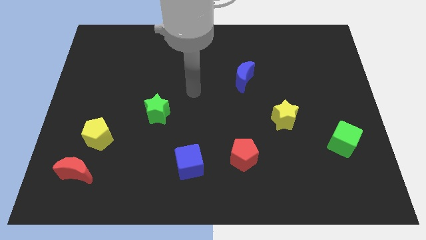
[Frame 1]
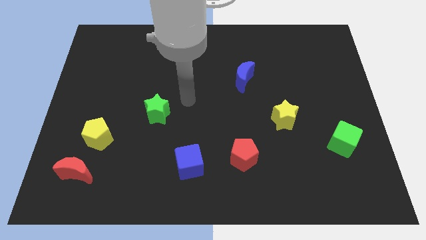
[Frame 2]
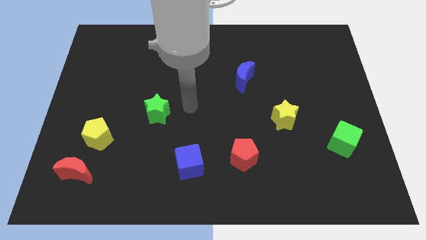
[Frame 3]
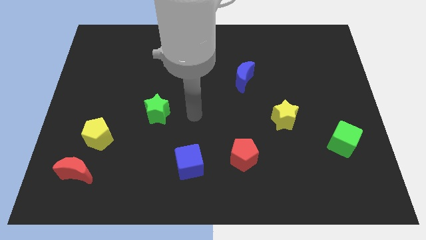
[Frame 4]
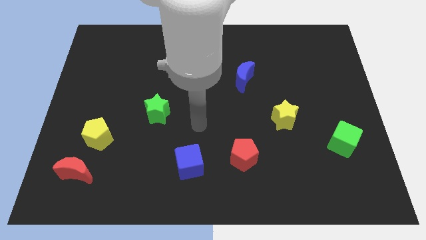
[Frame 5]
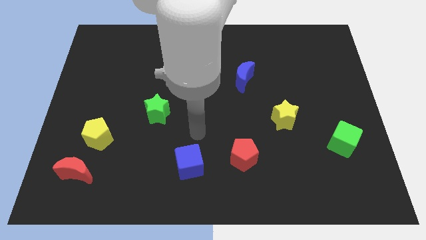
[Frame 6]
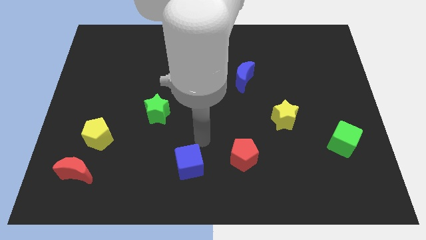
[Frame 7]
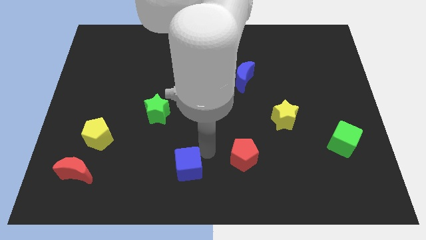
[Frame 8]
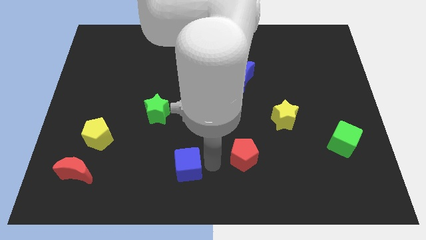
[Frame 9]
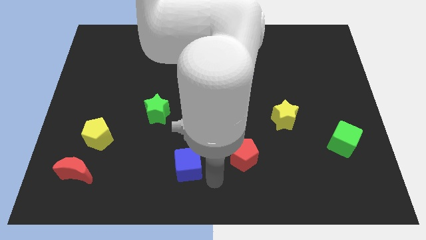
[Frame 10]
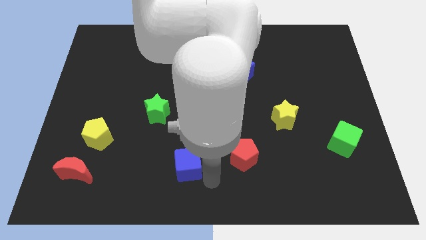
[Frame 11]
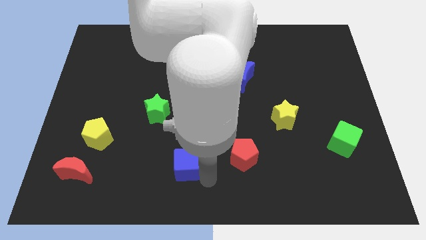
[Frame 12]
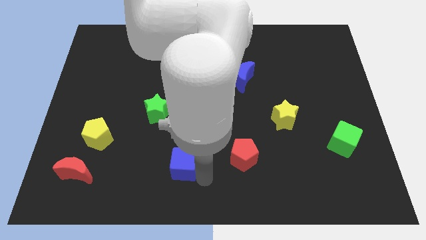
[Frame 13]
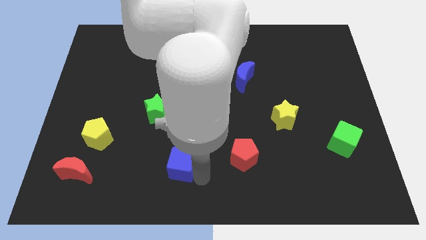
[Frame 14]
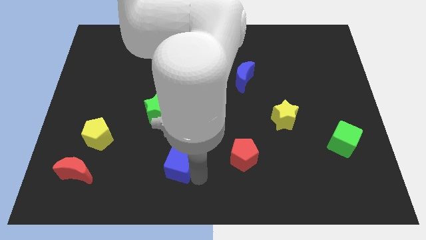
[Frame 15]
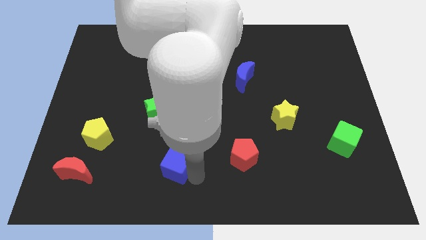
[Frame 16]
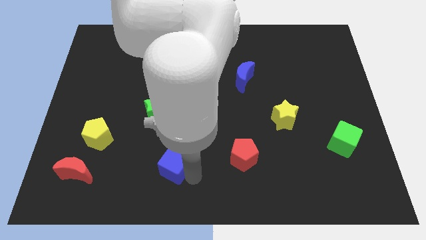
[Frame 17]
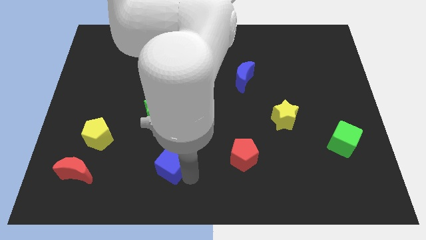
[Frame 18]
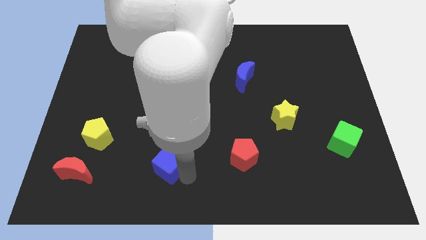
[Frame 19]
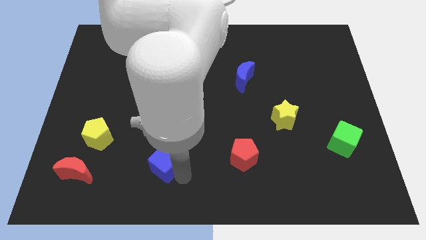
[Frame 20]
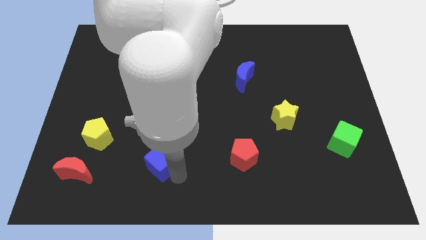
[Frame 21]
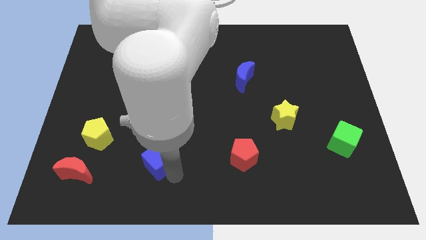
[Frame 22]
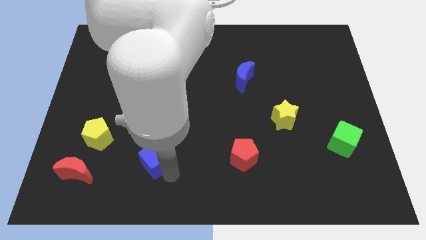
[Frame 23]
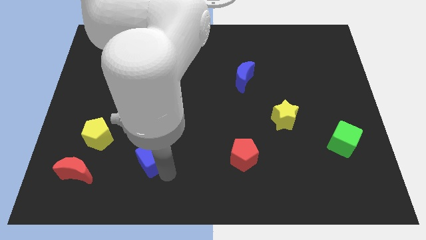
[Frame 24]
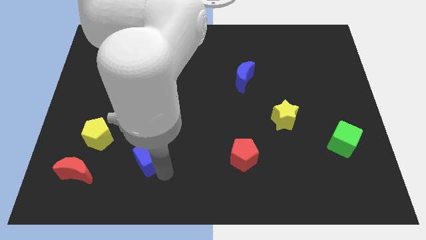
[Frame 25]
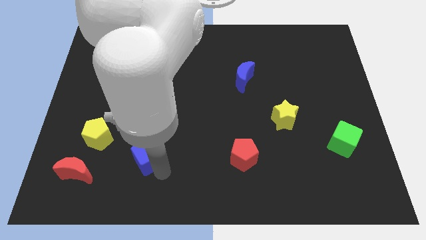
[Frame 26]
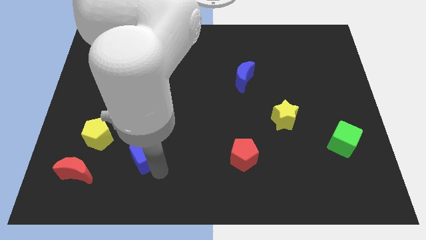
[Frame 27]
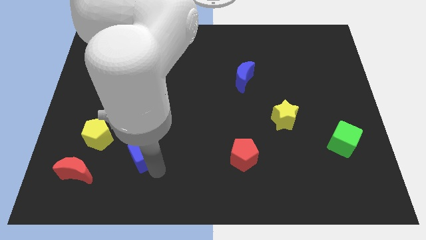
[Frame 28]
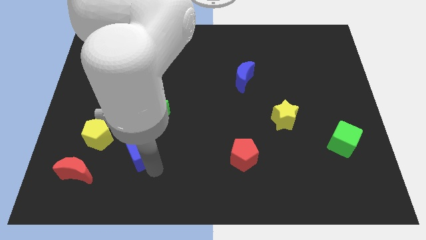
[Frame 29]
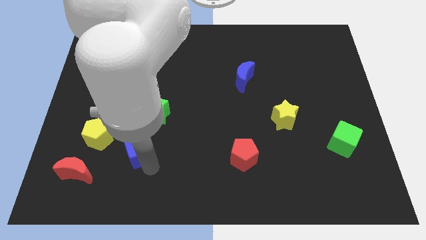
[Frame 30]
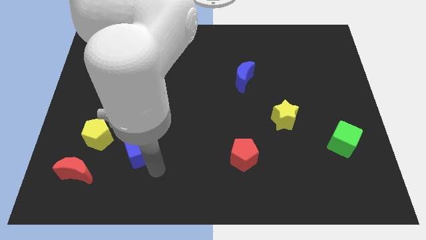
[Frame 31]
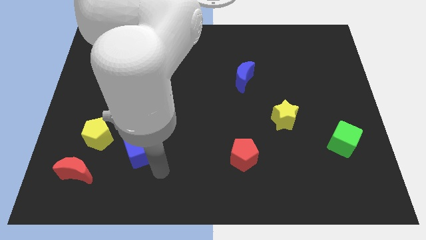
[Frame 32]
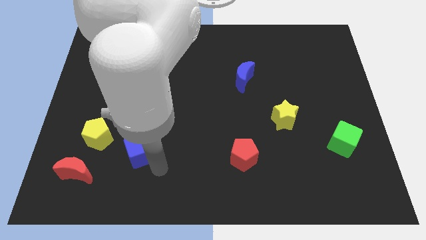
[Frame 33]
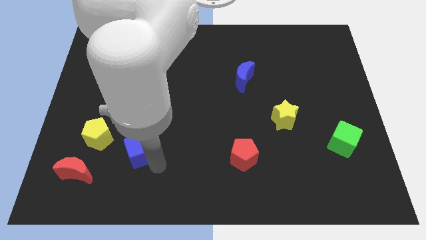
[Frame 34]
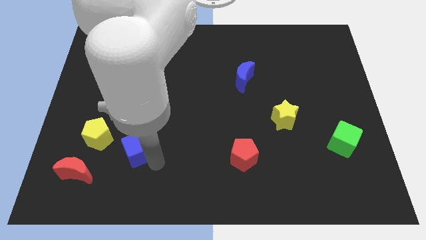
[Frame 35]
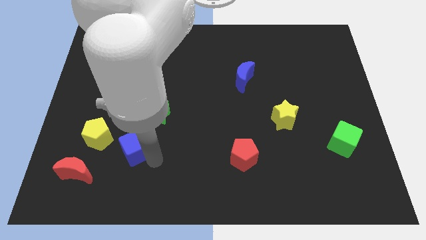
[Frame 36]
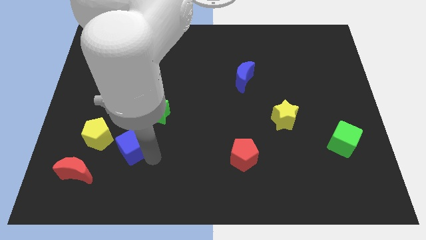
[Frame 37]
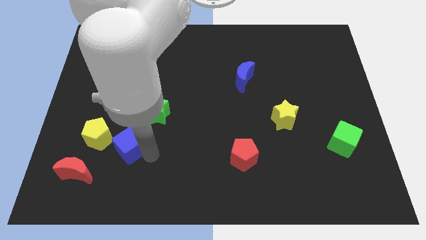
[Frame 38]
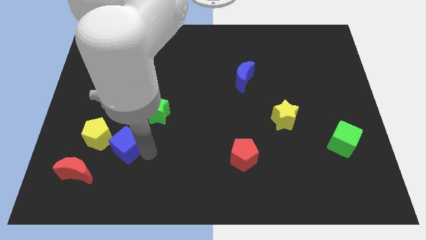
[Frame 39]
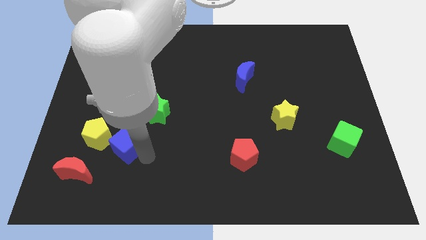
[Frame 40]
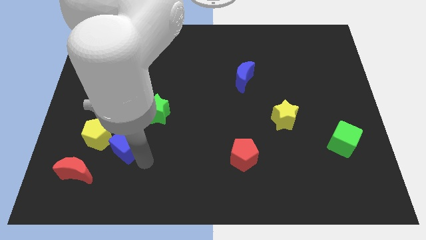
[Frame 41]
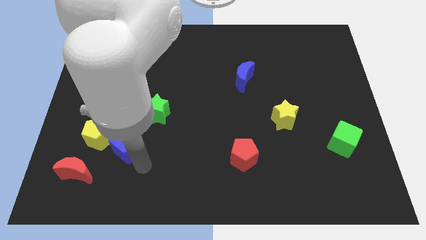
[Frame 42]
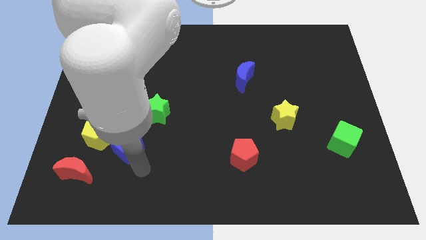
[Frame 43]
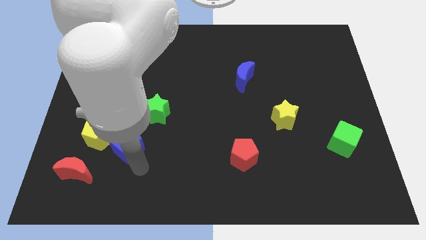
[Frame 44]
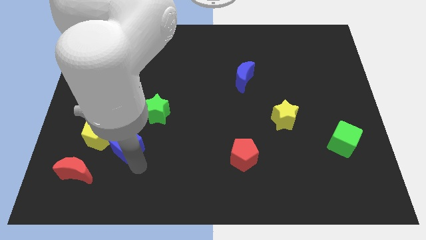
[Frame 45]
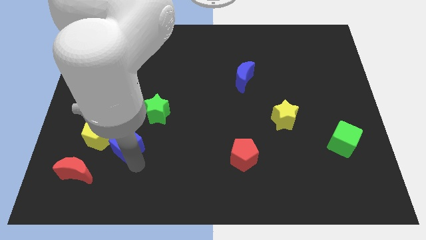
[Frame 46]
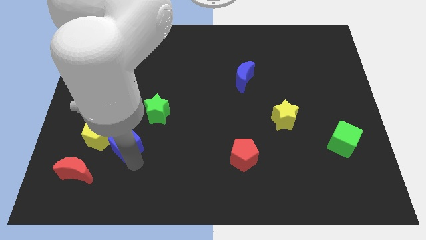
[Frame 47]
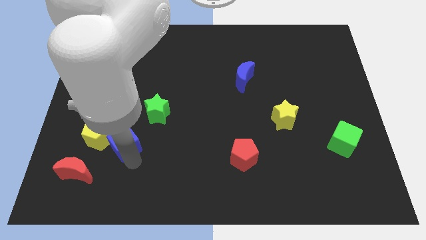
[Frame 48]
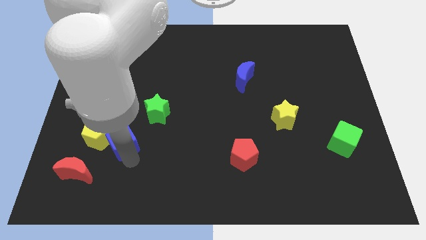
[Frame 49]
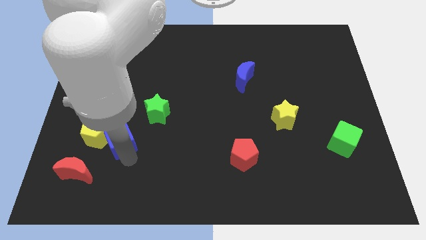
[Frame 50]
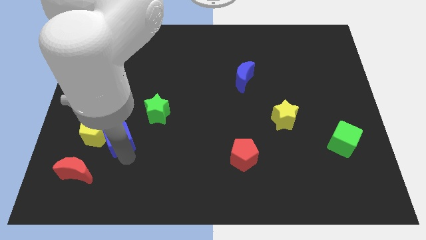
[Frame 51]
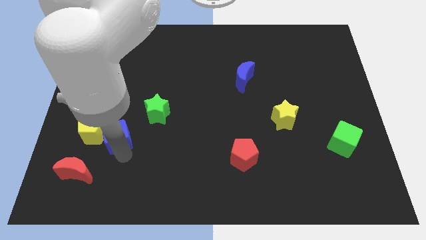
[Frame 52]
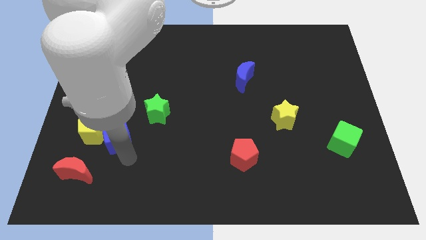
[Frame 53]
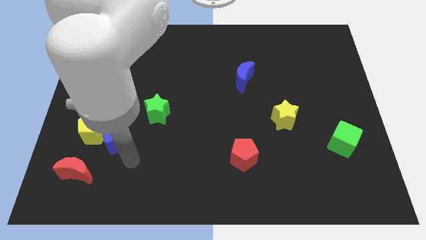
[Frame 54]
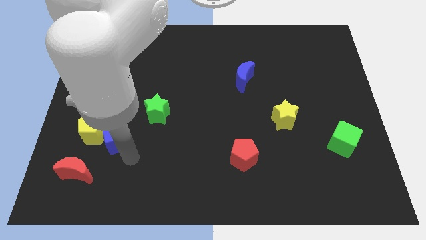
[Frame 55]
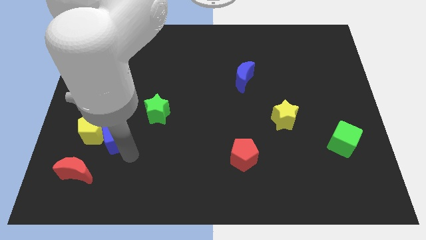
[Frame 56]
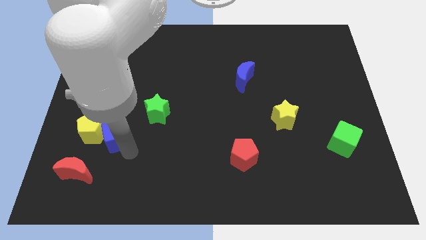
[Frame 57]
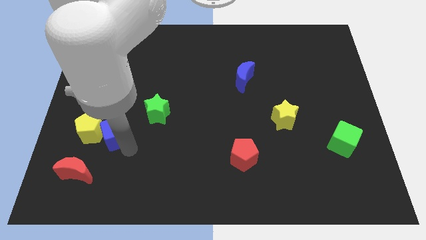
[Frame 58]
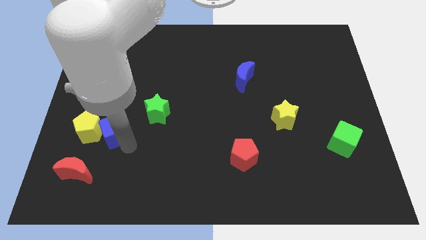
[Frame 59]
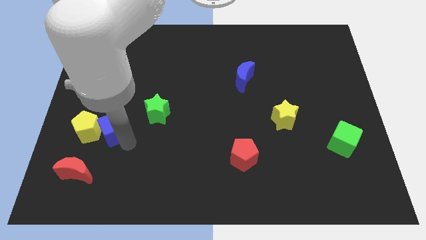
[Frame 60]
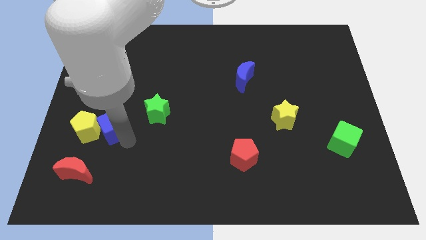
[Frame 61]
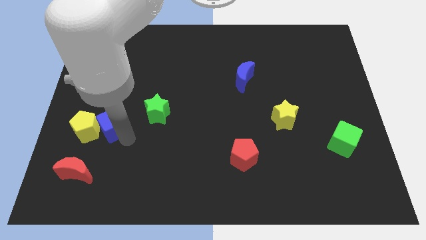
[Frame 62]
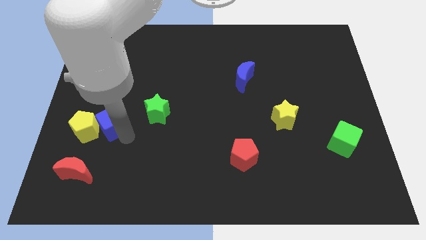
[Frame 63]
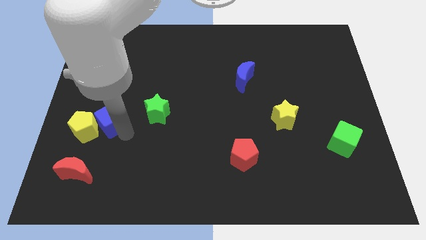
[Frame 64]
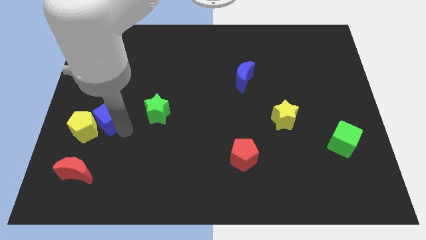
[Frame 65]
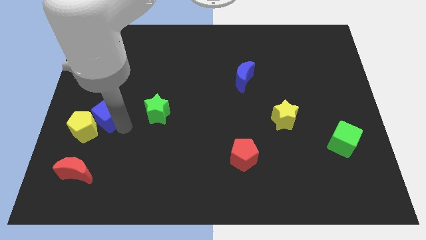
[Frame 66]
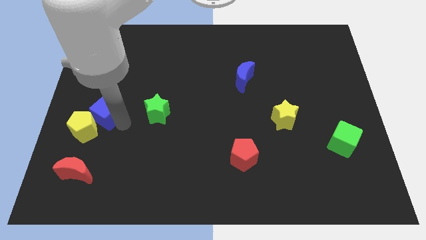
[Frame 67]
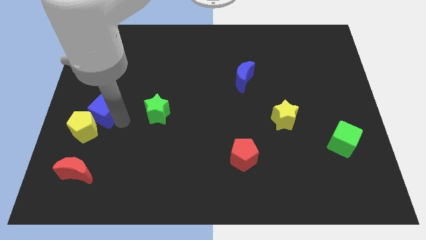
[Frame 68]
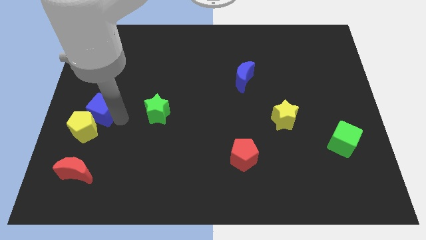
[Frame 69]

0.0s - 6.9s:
push the blue cube to the left side

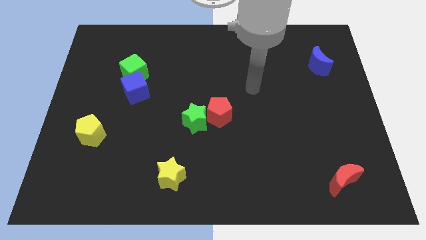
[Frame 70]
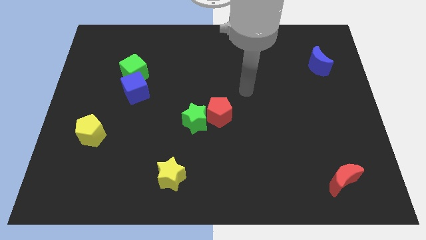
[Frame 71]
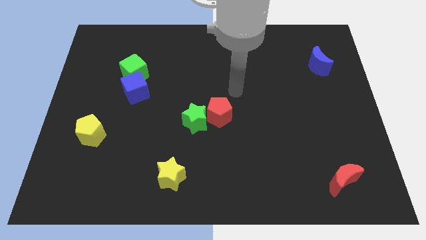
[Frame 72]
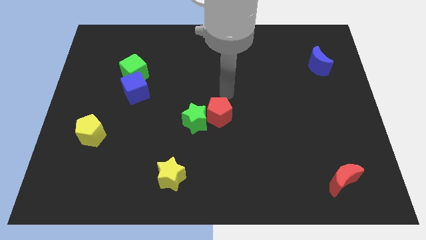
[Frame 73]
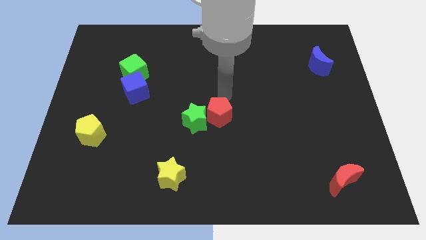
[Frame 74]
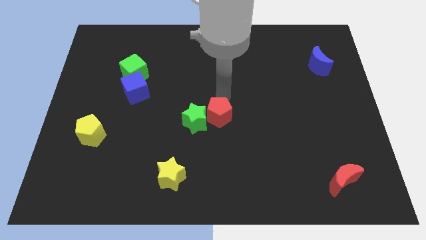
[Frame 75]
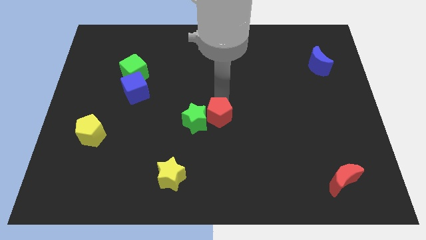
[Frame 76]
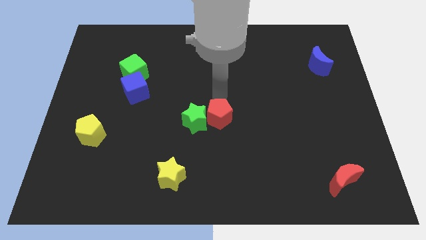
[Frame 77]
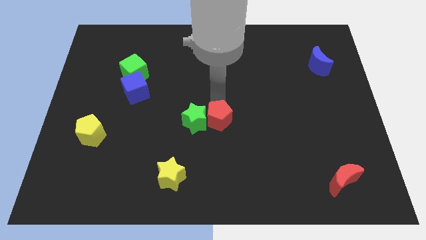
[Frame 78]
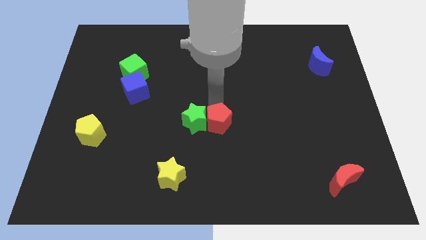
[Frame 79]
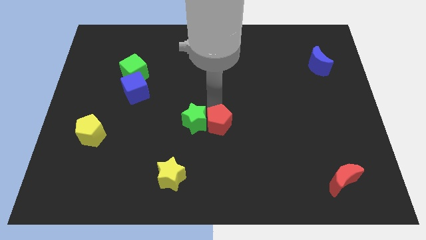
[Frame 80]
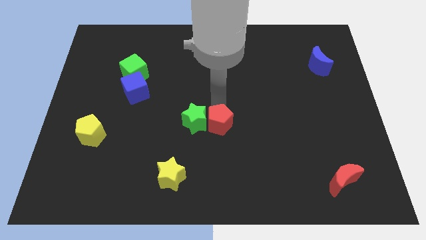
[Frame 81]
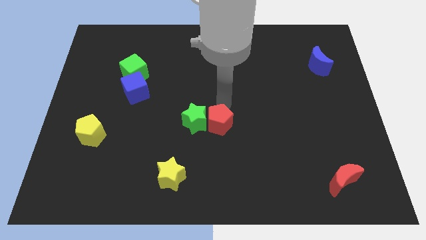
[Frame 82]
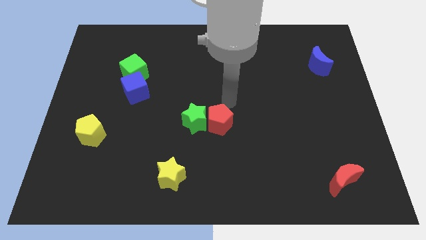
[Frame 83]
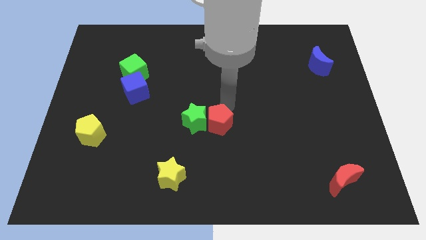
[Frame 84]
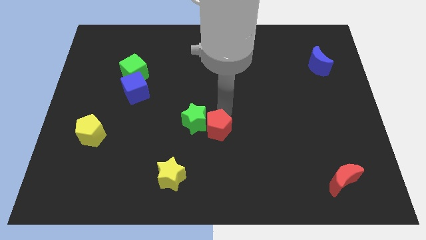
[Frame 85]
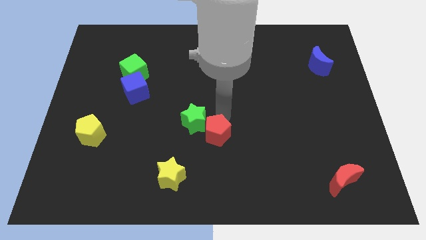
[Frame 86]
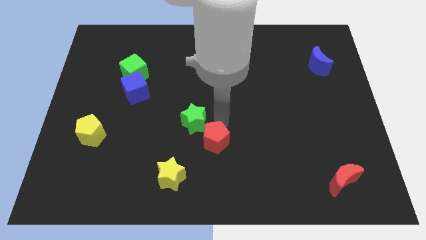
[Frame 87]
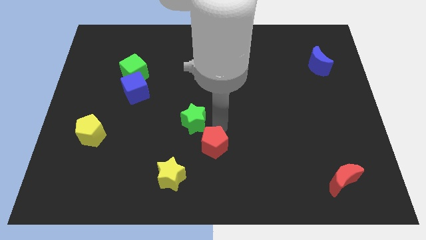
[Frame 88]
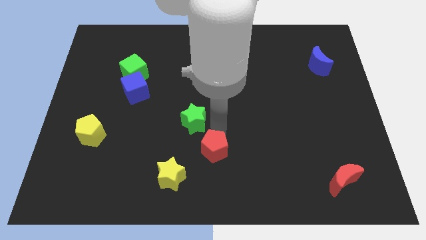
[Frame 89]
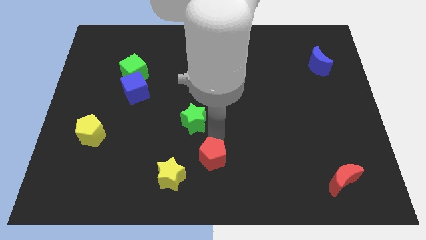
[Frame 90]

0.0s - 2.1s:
put the red pentagon to the bottom side
